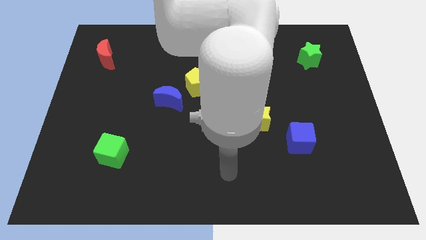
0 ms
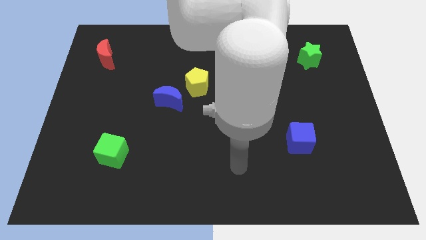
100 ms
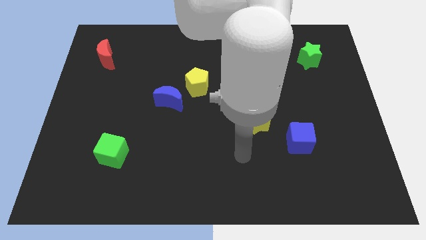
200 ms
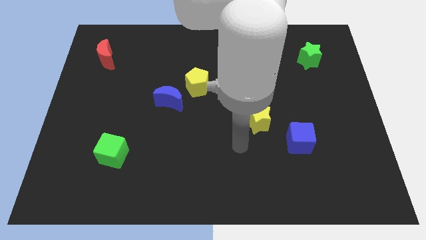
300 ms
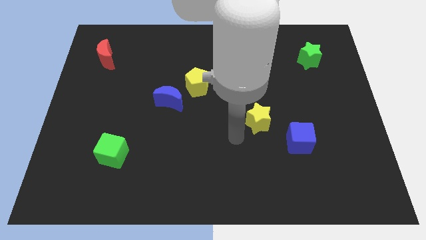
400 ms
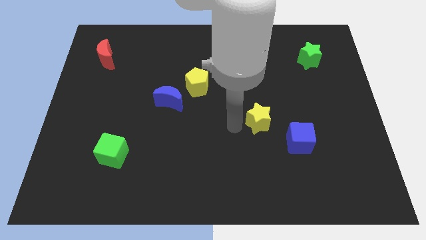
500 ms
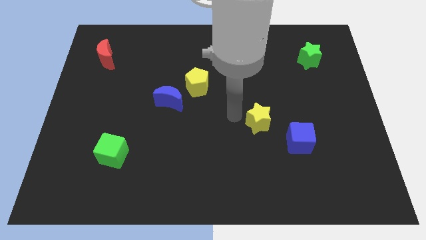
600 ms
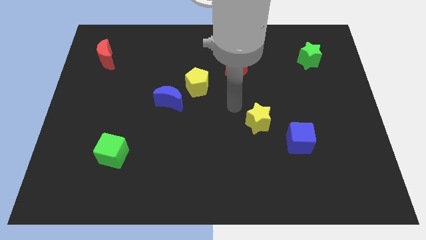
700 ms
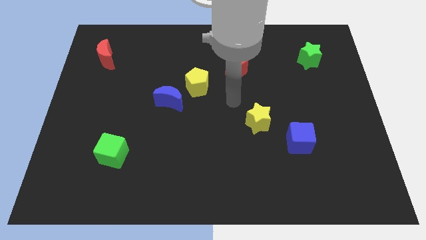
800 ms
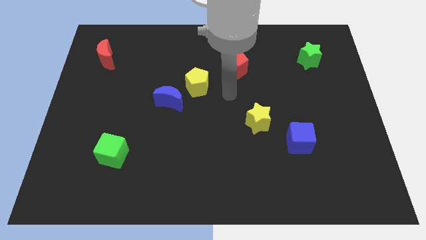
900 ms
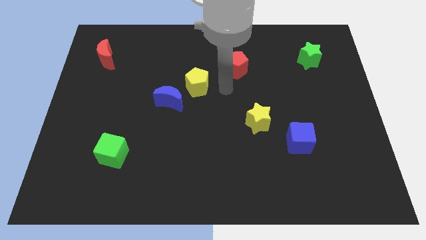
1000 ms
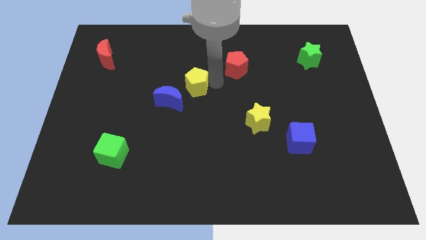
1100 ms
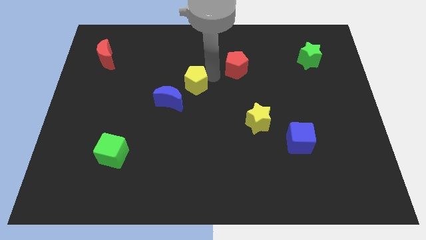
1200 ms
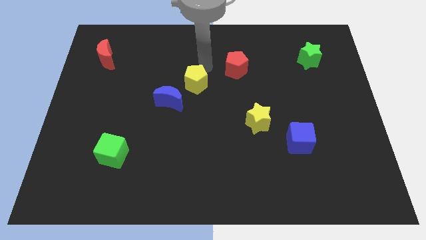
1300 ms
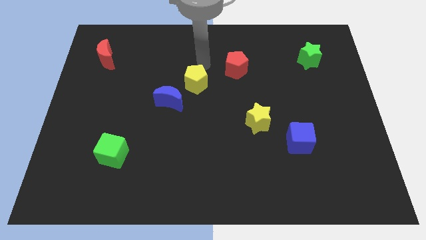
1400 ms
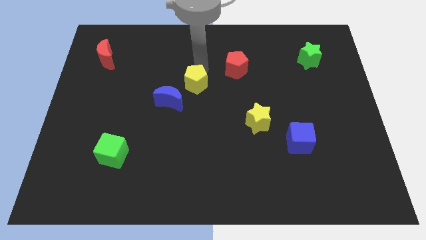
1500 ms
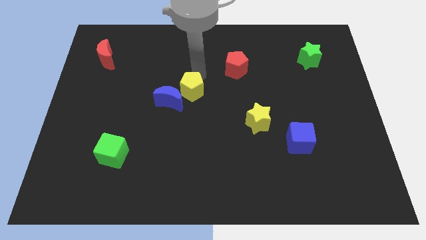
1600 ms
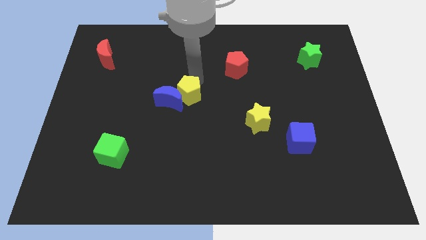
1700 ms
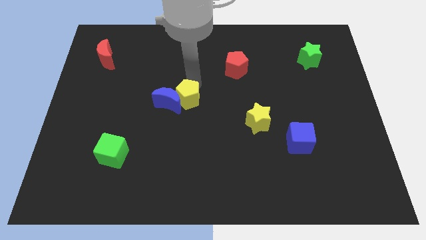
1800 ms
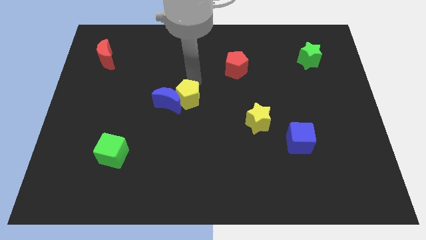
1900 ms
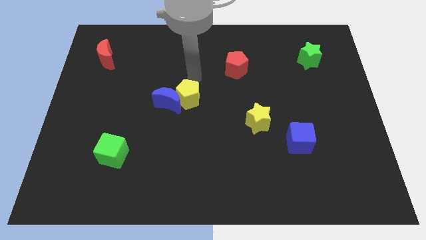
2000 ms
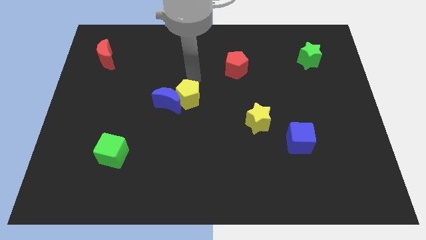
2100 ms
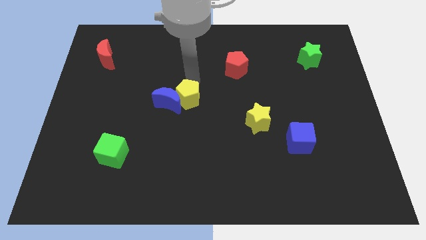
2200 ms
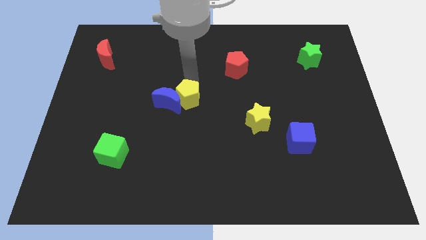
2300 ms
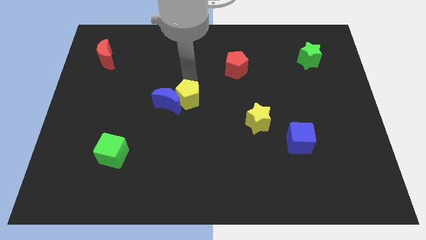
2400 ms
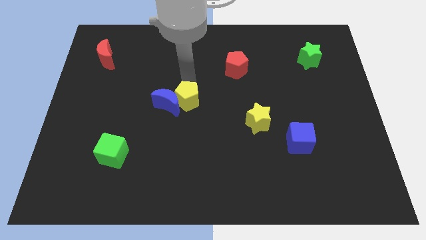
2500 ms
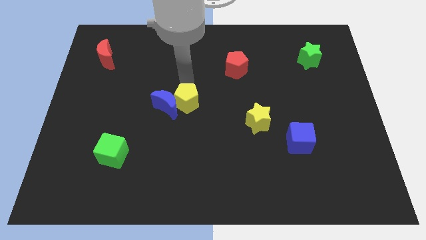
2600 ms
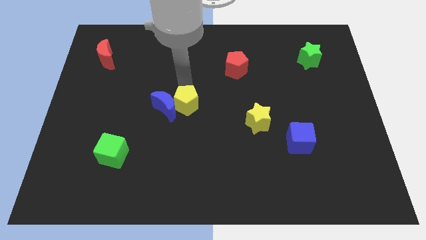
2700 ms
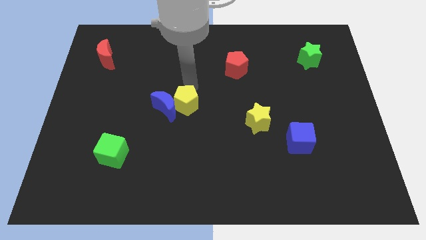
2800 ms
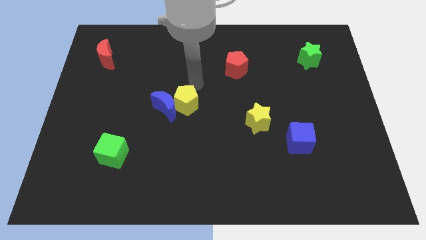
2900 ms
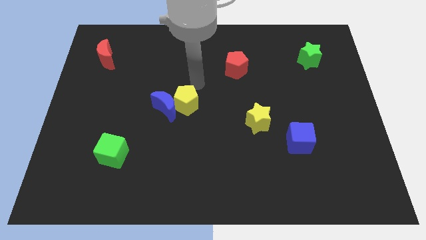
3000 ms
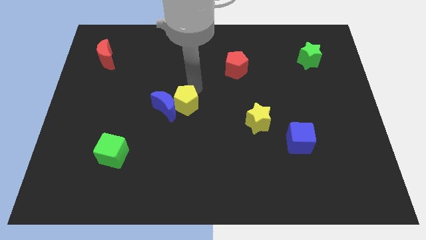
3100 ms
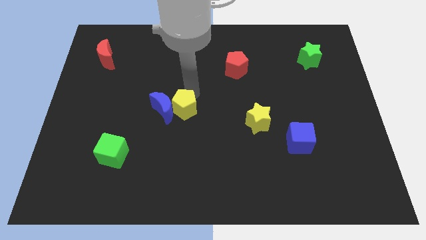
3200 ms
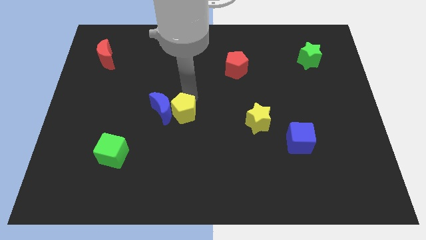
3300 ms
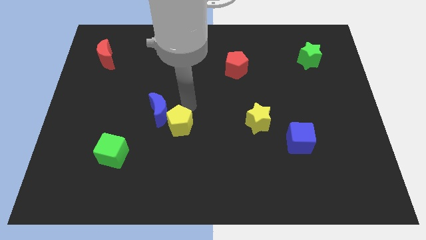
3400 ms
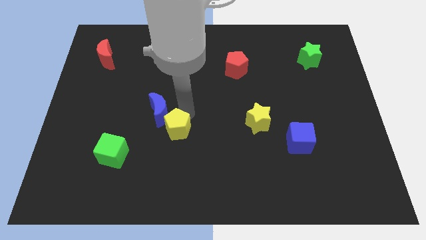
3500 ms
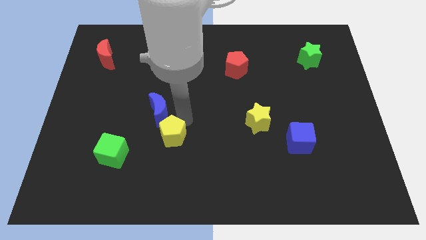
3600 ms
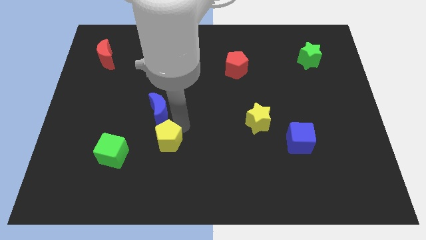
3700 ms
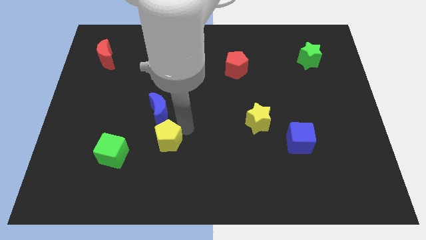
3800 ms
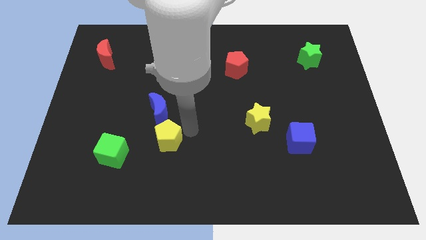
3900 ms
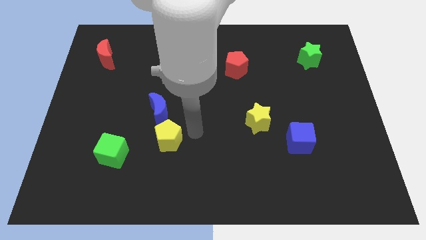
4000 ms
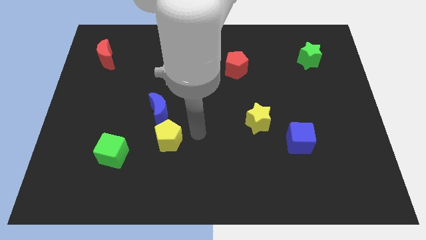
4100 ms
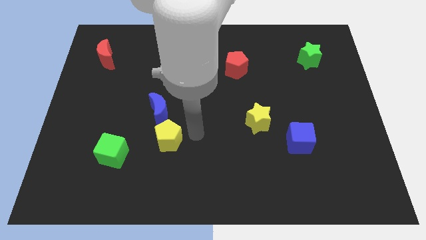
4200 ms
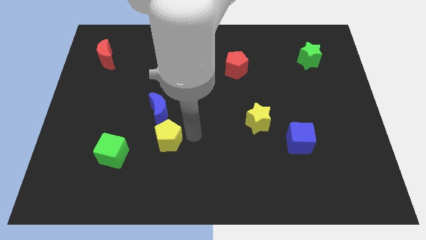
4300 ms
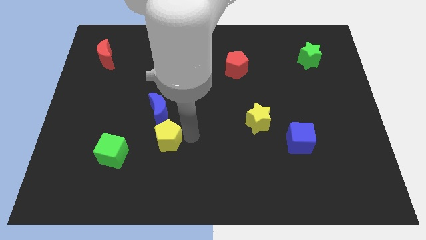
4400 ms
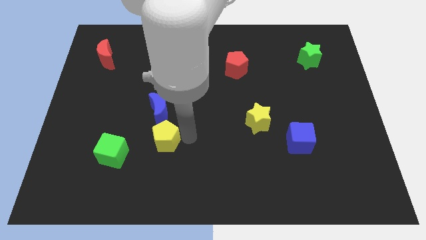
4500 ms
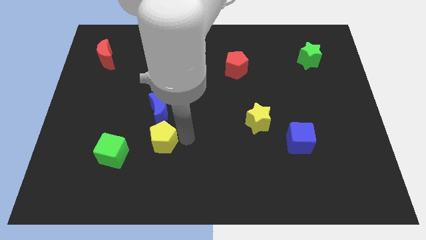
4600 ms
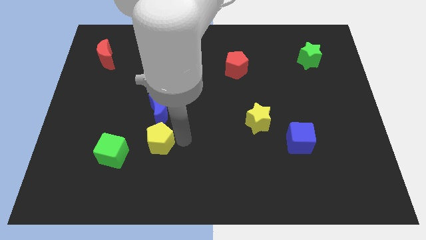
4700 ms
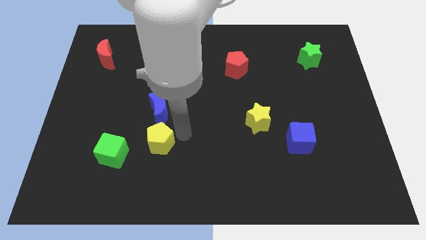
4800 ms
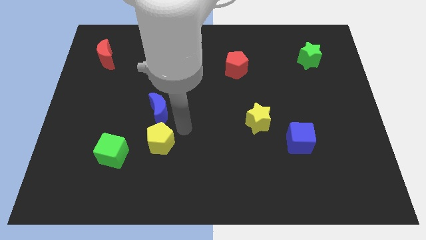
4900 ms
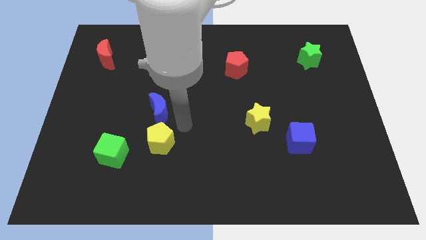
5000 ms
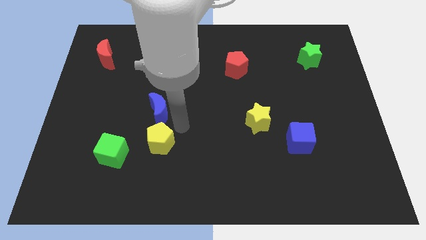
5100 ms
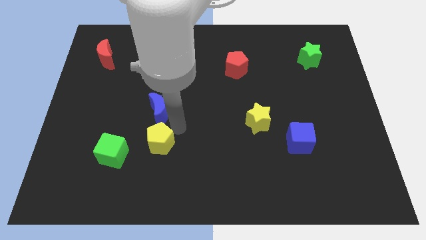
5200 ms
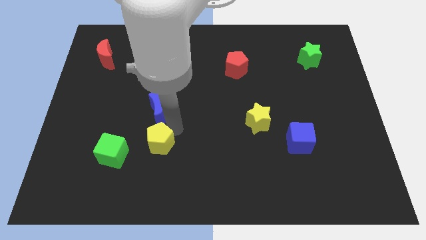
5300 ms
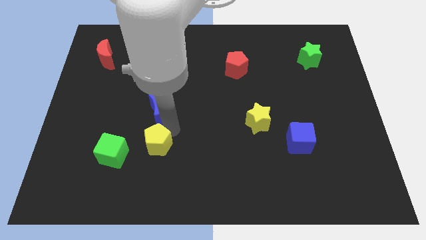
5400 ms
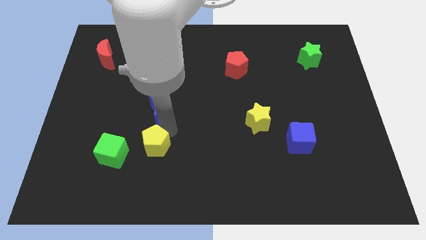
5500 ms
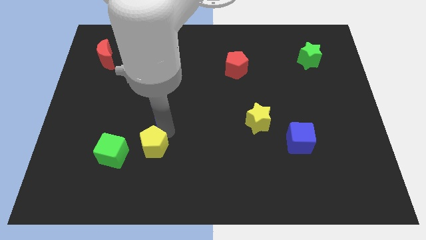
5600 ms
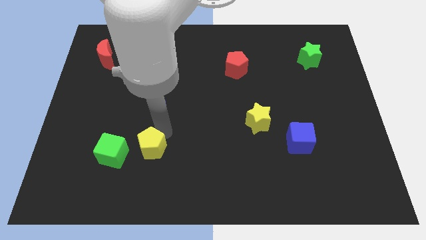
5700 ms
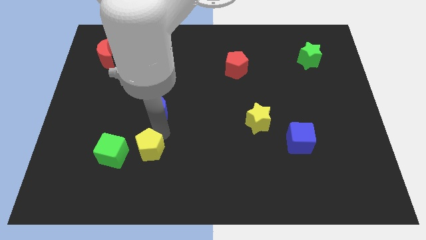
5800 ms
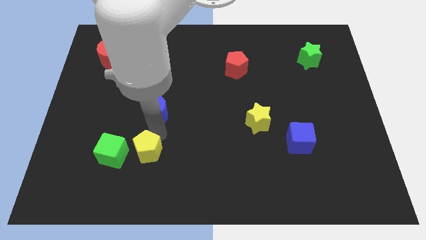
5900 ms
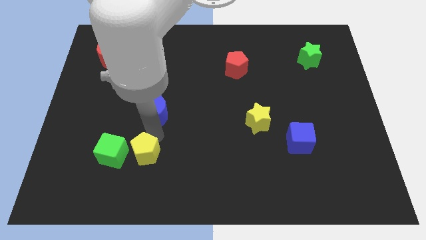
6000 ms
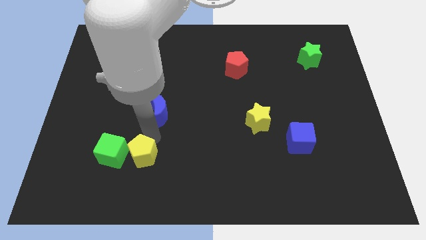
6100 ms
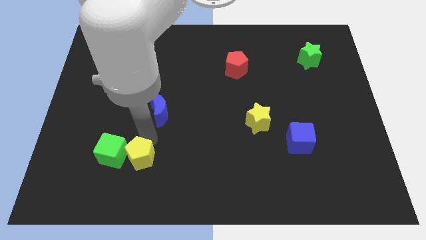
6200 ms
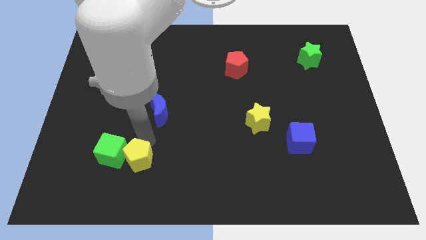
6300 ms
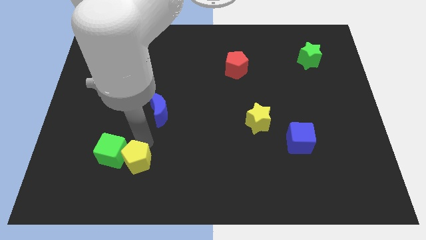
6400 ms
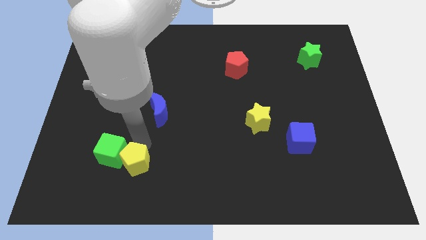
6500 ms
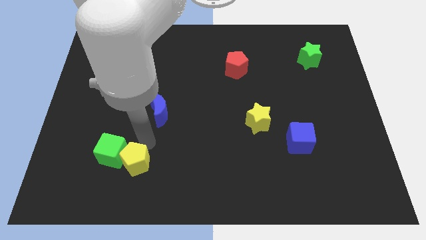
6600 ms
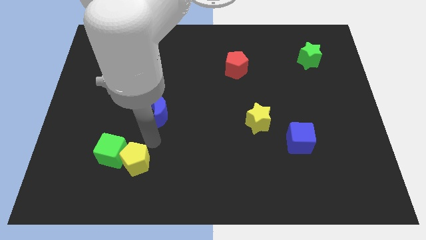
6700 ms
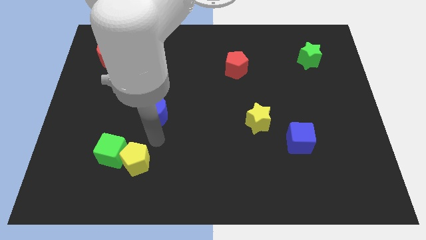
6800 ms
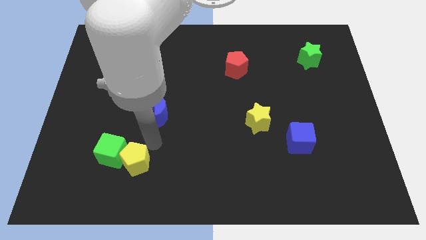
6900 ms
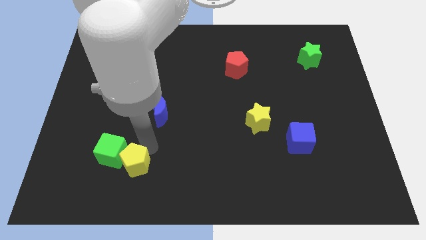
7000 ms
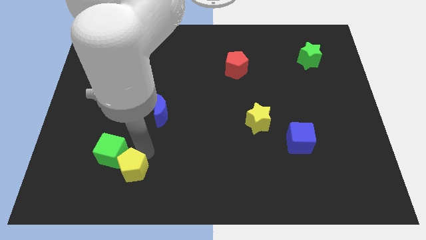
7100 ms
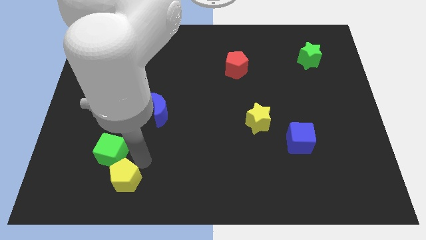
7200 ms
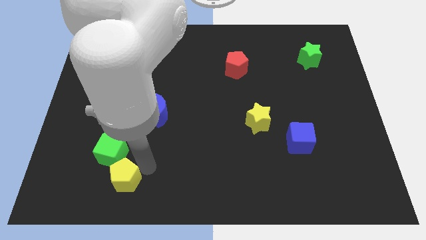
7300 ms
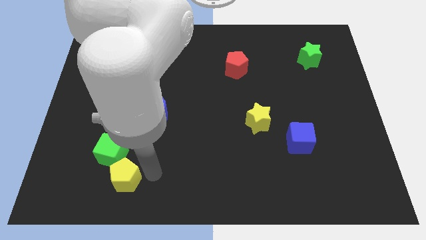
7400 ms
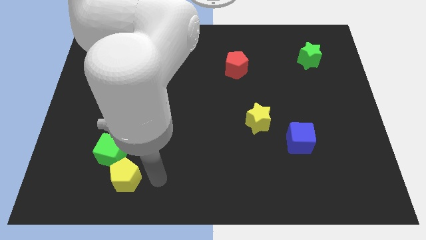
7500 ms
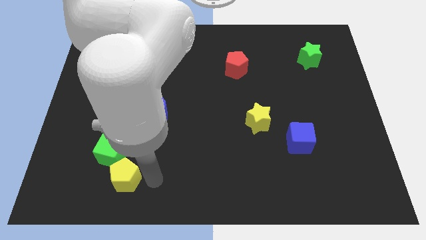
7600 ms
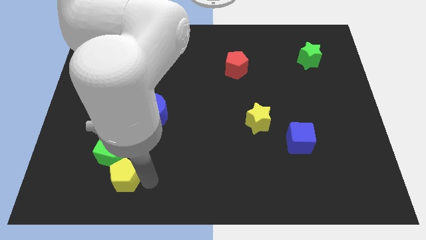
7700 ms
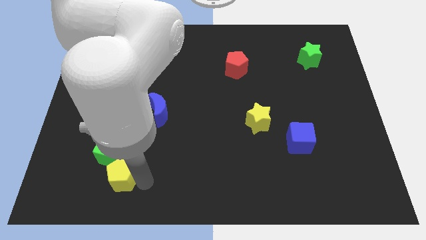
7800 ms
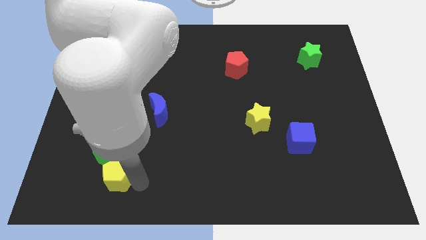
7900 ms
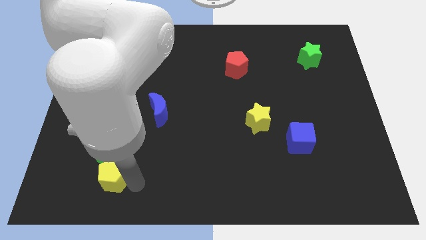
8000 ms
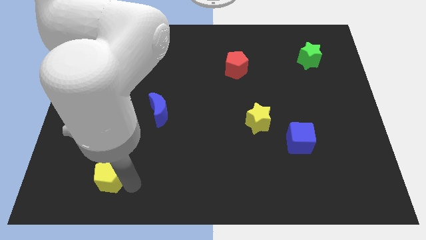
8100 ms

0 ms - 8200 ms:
slide the yellow pentagon to the bottom left of the green cube
